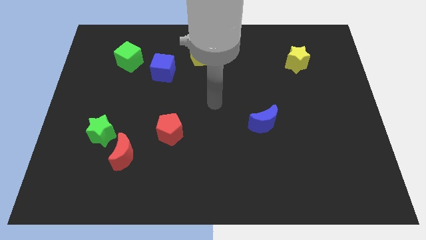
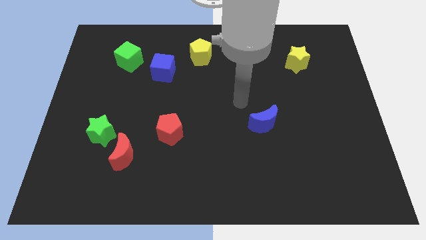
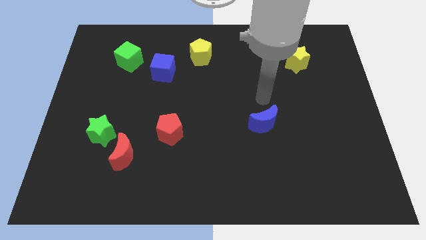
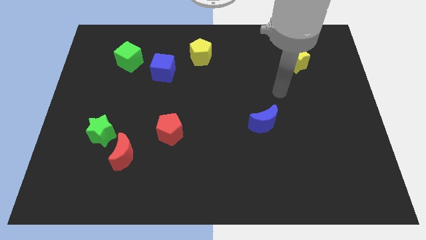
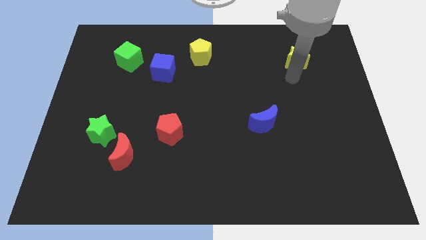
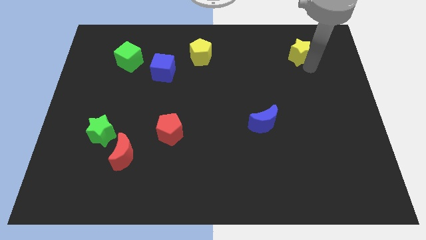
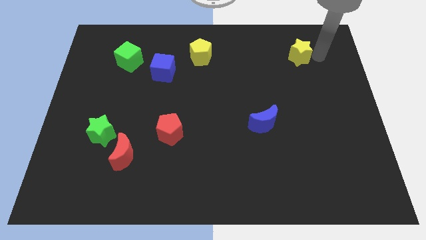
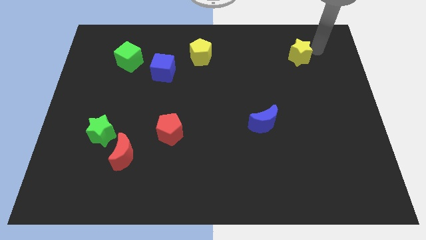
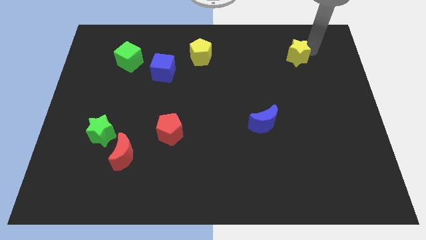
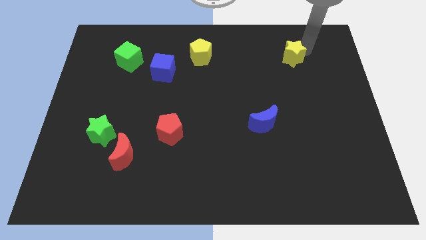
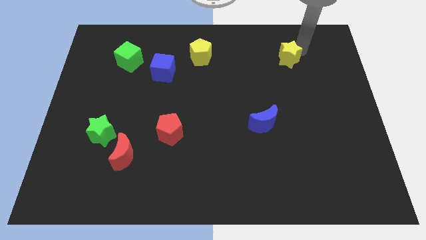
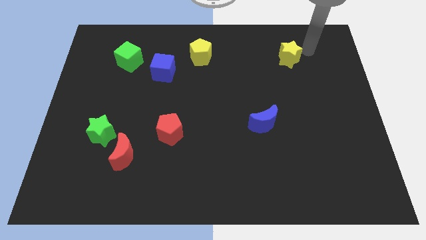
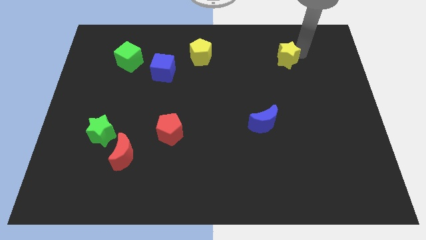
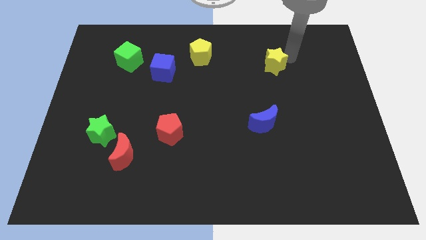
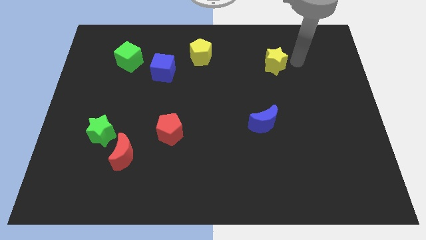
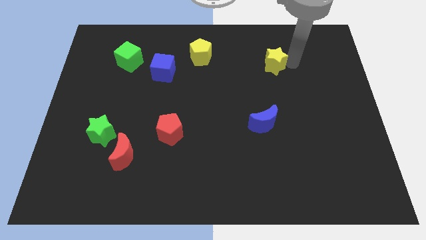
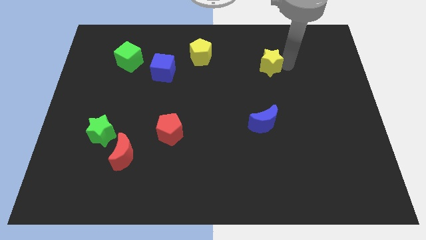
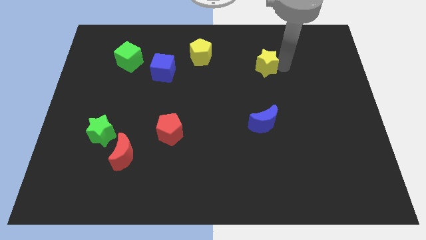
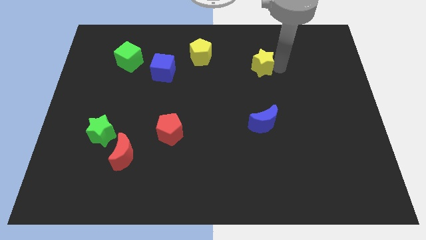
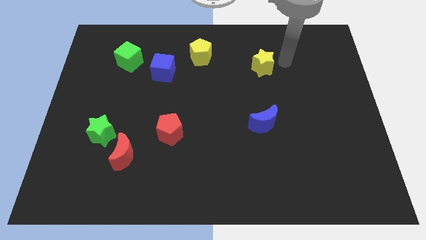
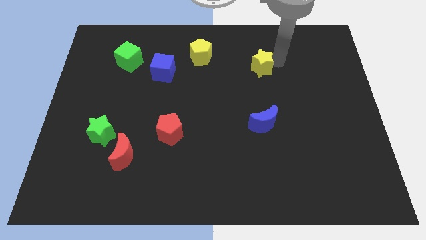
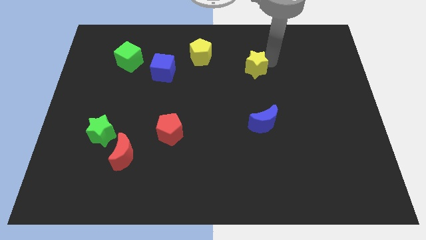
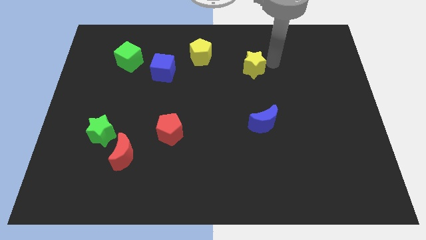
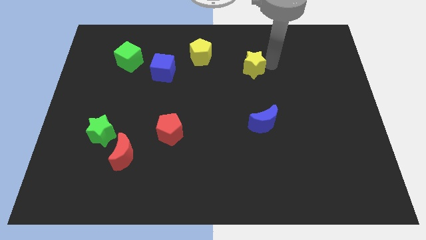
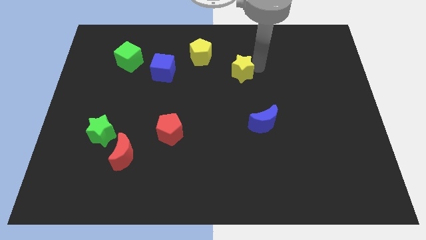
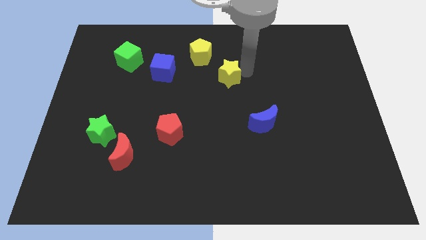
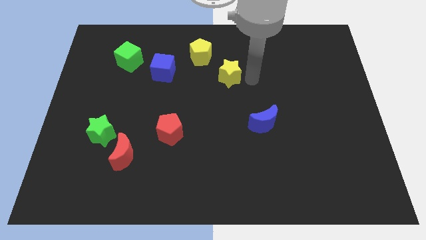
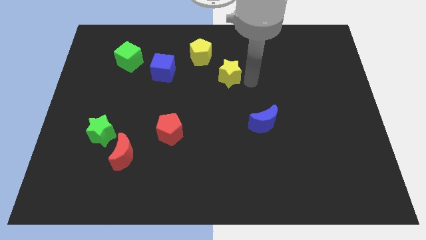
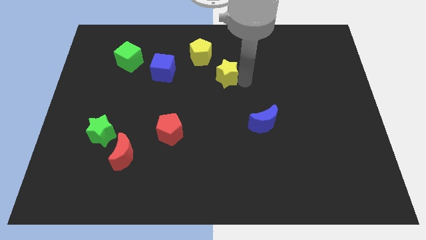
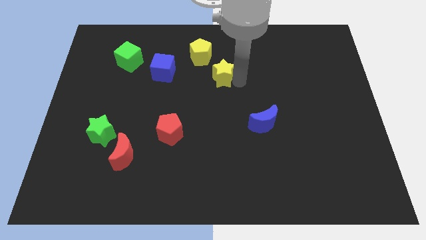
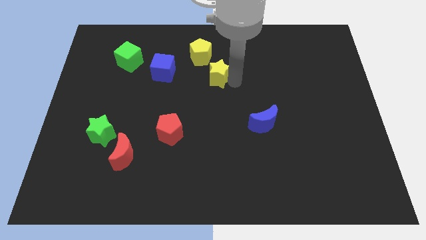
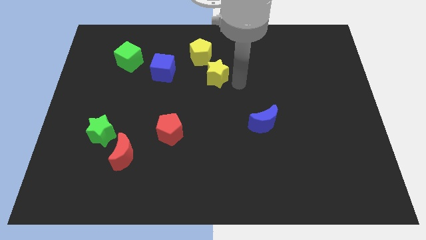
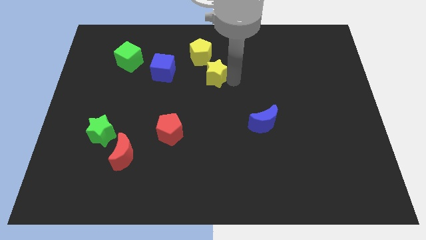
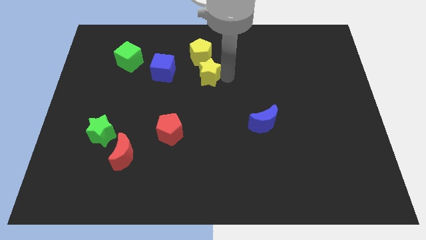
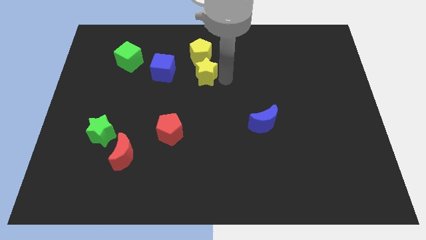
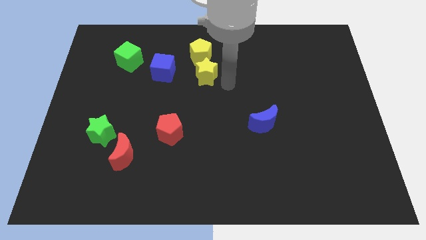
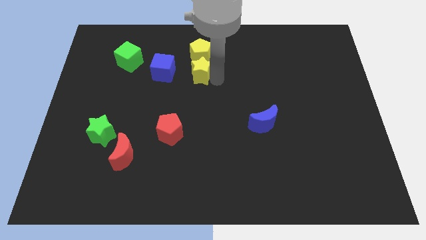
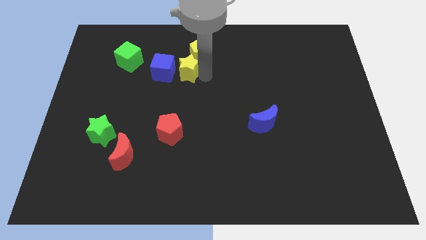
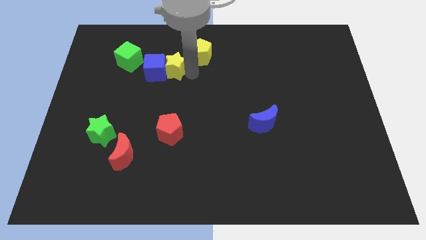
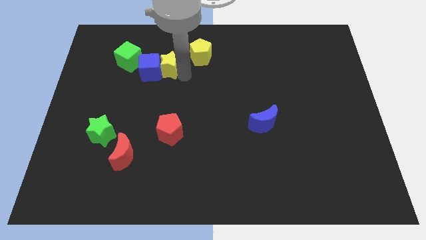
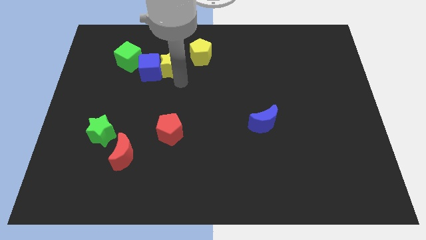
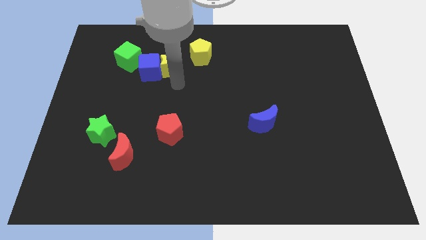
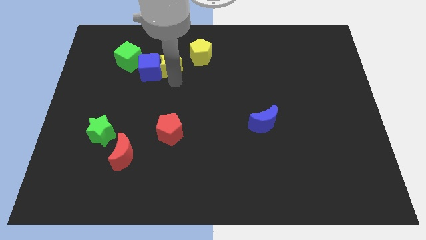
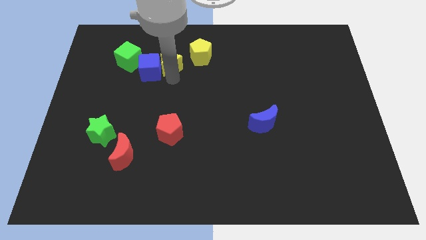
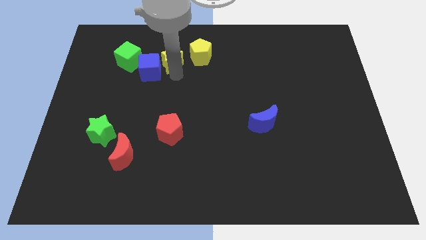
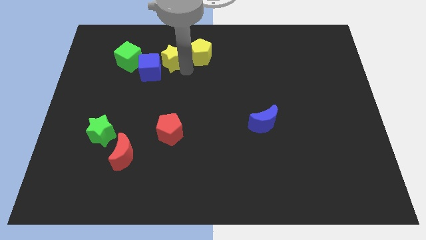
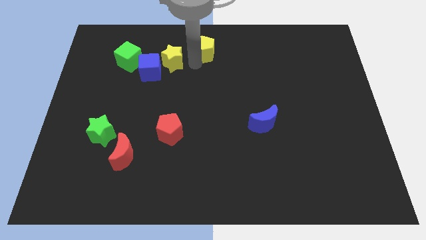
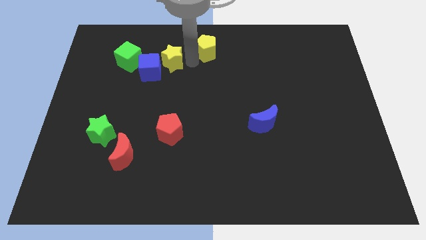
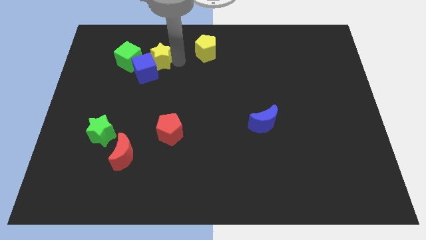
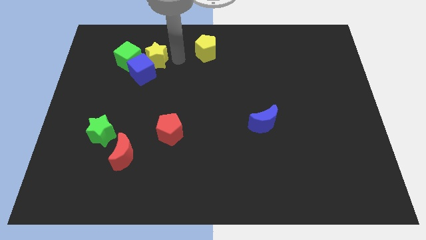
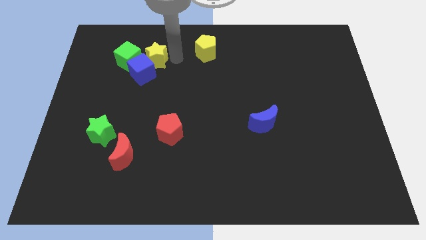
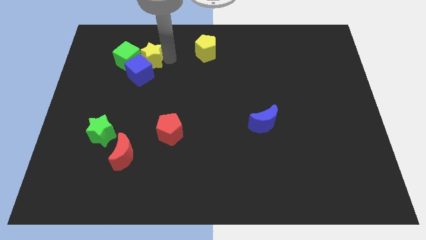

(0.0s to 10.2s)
push the yellow star to the green cube

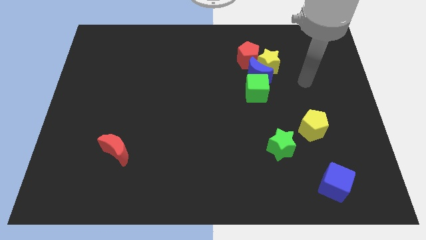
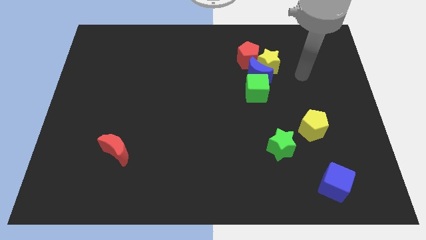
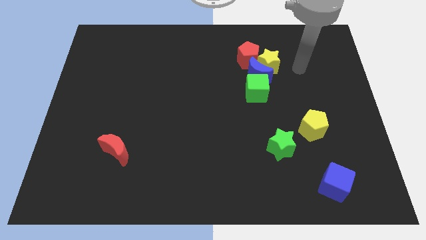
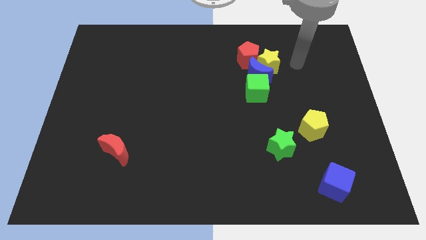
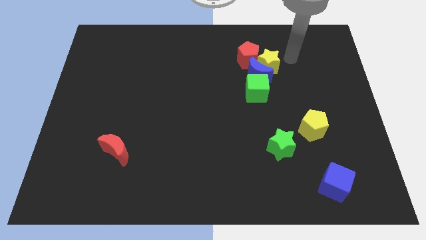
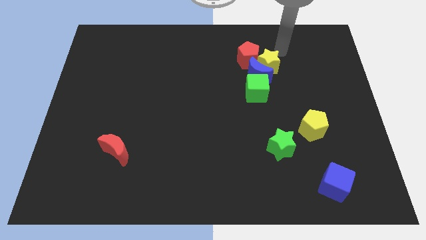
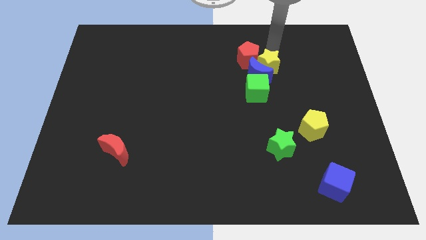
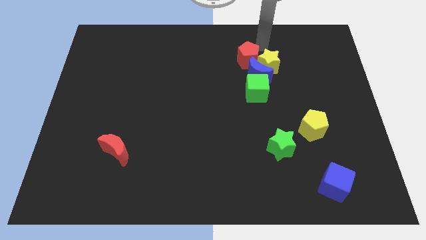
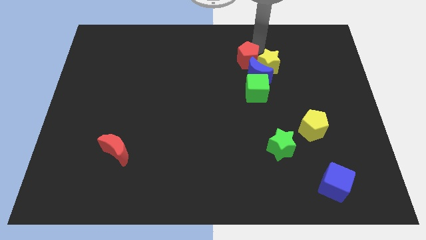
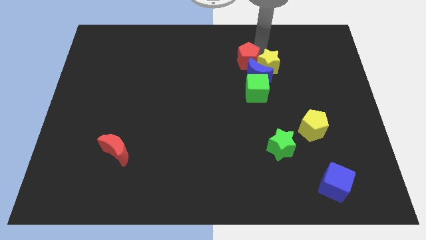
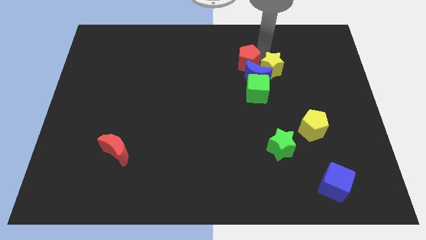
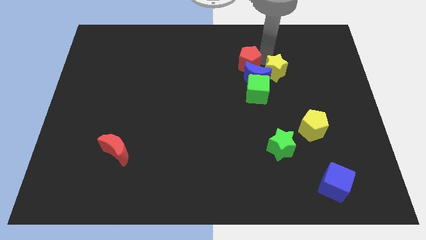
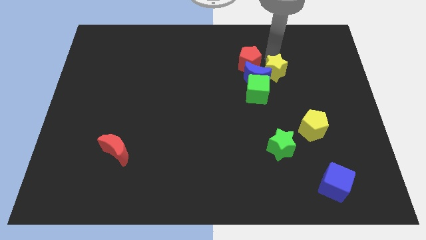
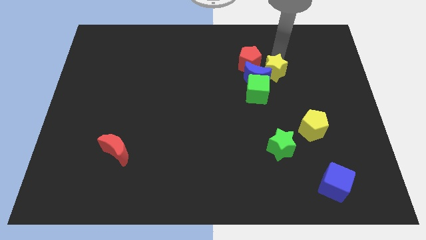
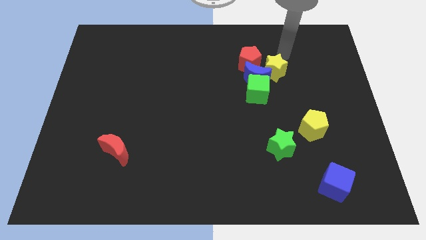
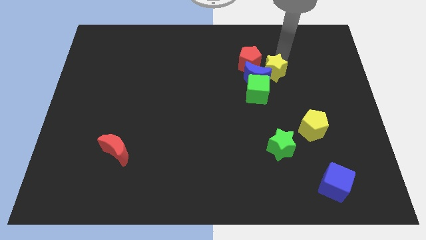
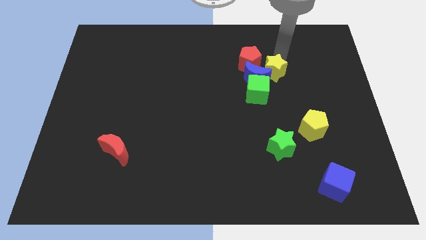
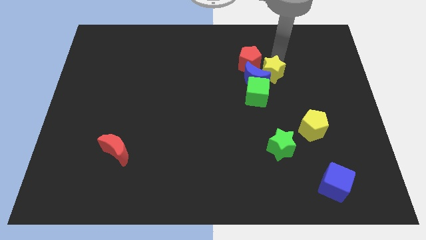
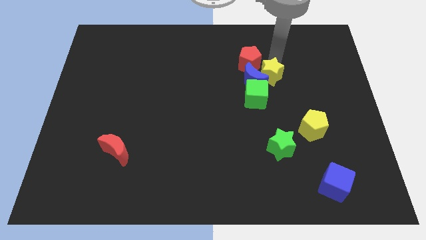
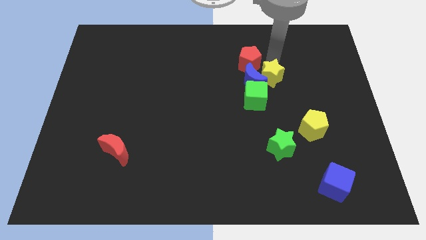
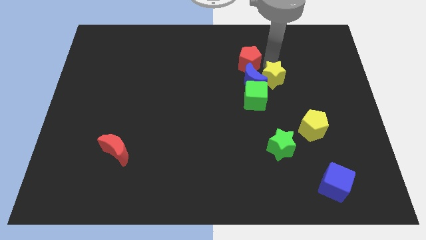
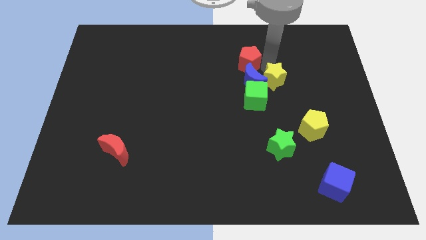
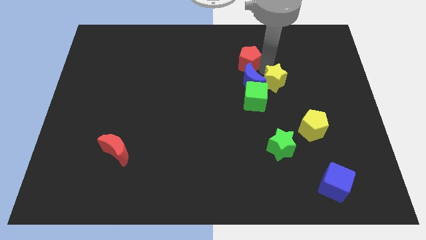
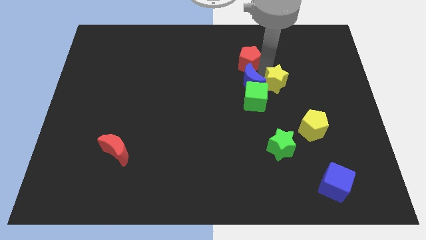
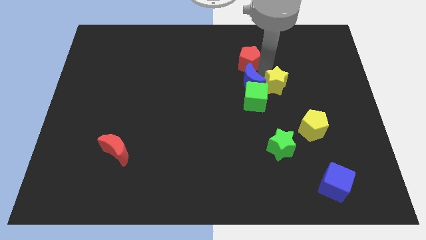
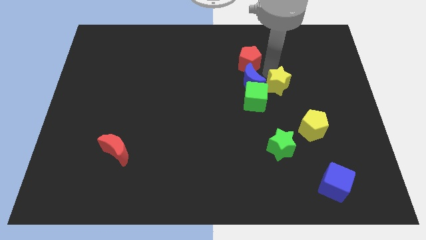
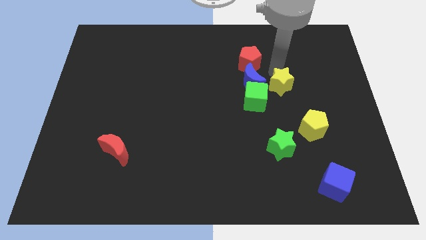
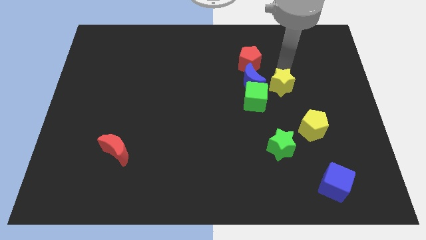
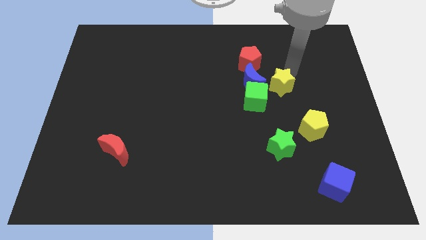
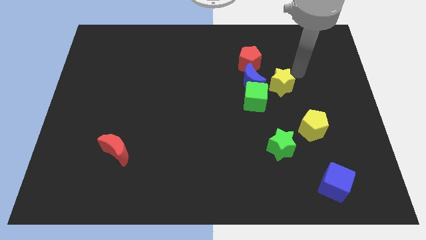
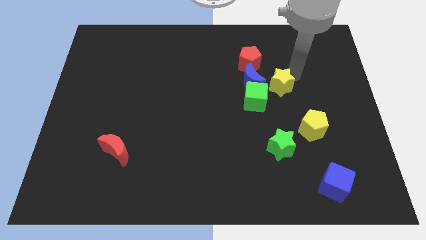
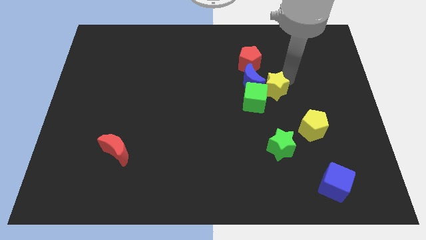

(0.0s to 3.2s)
move the yellow star to the green cube
